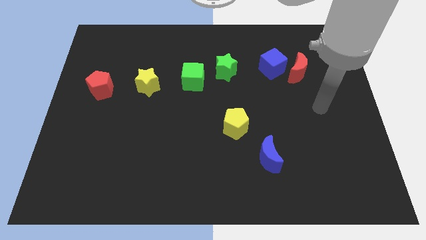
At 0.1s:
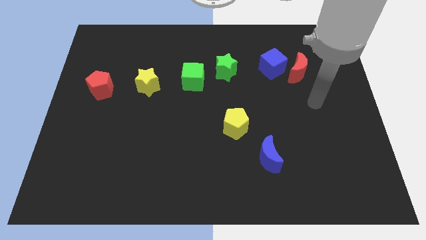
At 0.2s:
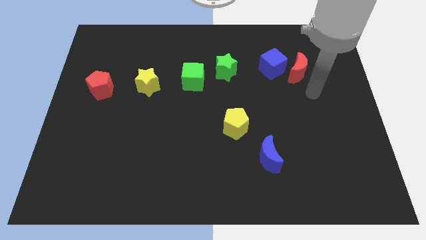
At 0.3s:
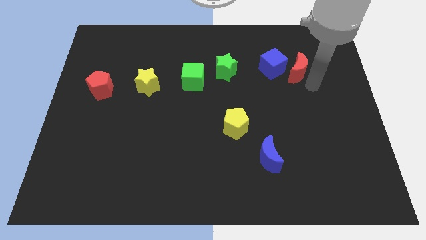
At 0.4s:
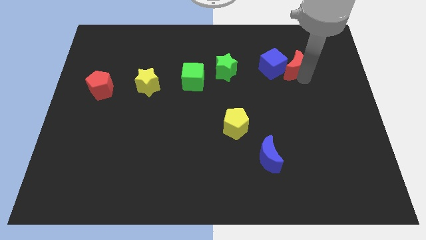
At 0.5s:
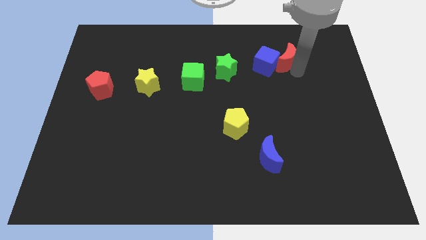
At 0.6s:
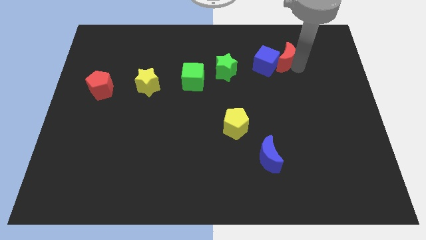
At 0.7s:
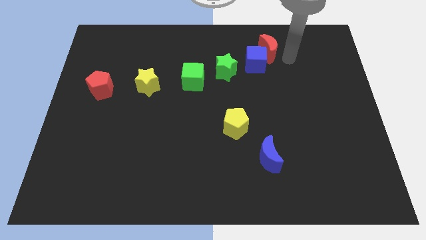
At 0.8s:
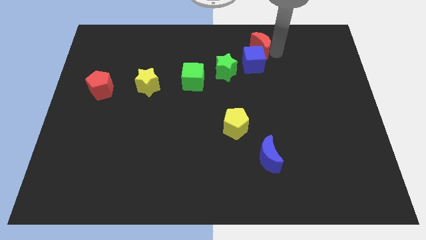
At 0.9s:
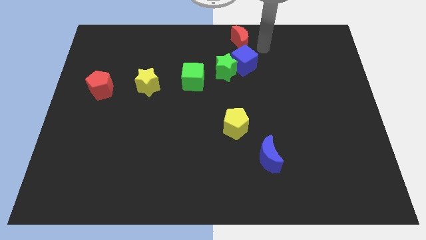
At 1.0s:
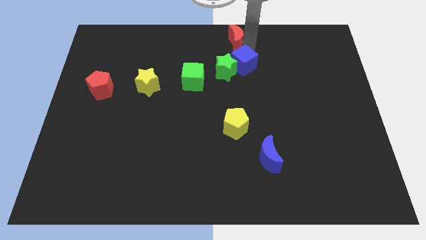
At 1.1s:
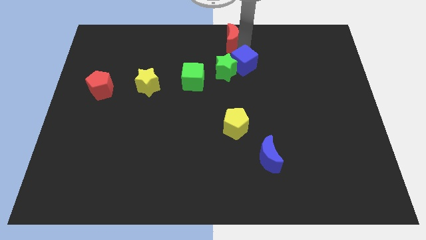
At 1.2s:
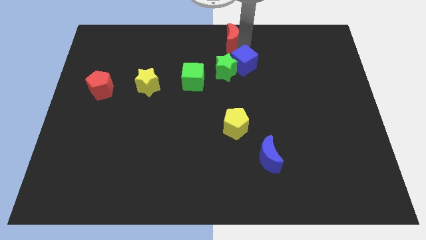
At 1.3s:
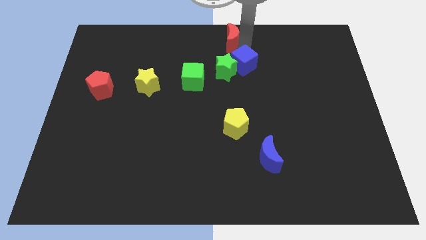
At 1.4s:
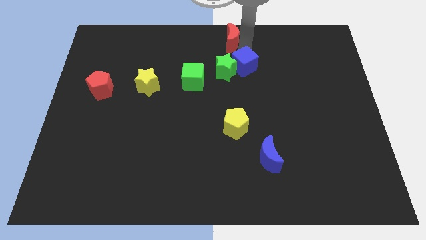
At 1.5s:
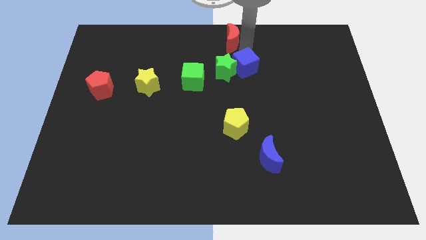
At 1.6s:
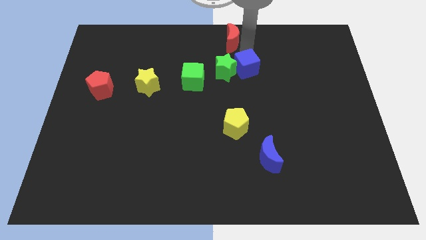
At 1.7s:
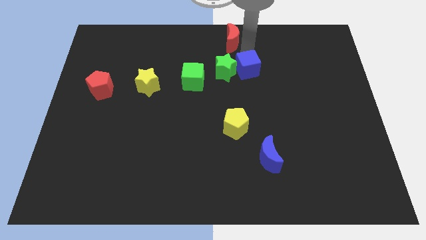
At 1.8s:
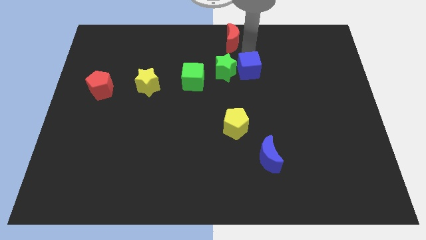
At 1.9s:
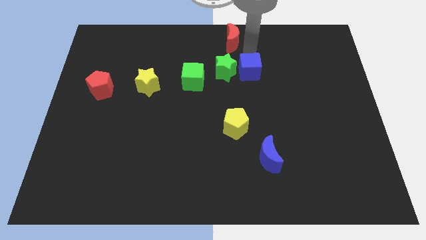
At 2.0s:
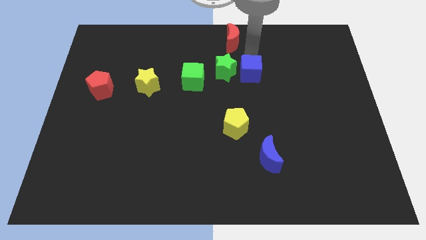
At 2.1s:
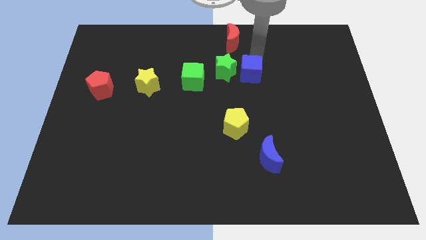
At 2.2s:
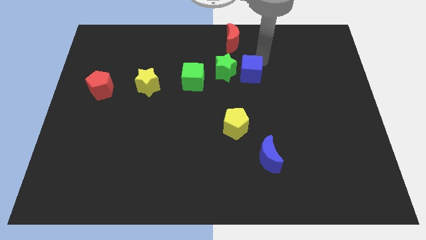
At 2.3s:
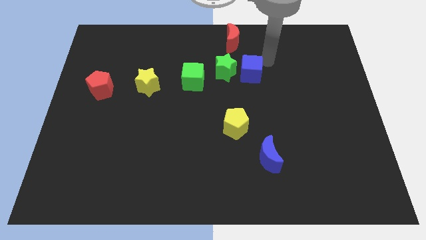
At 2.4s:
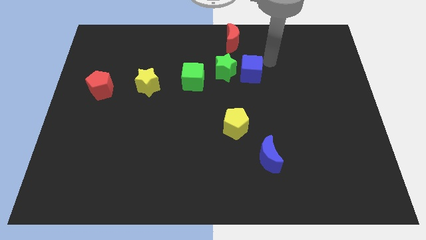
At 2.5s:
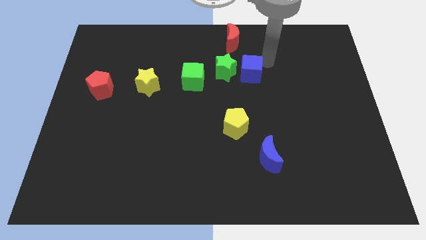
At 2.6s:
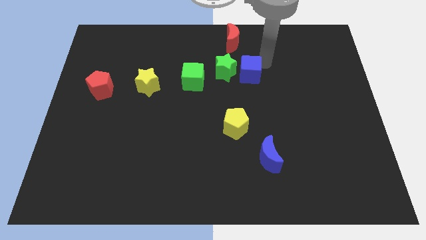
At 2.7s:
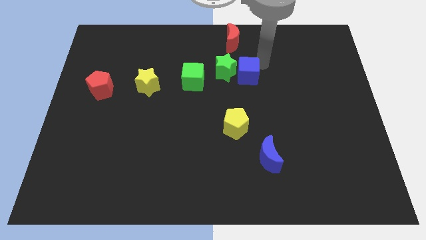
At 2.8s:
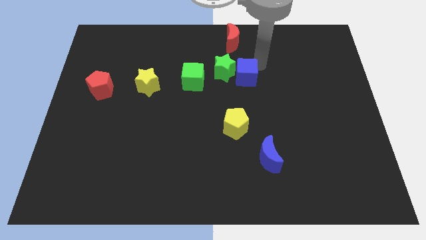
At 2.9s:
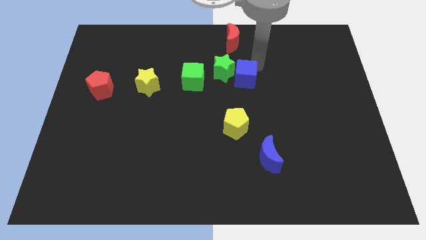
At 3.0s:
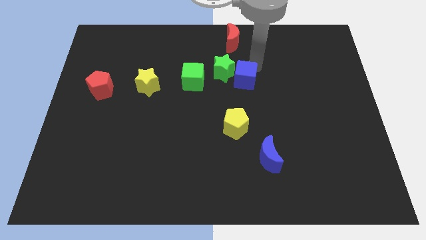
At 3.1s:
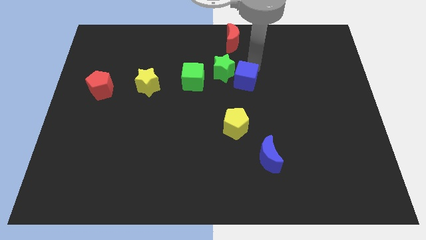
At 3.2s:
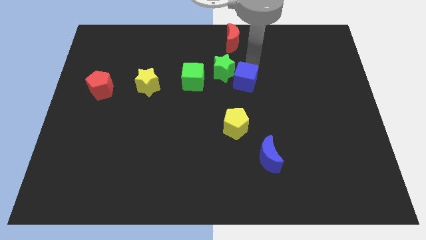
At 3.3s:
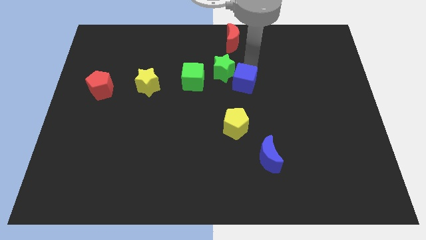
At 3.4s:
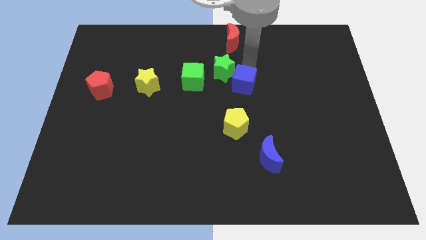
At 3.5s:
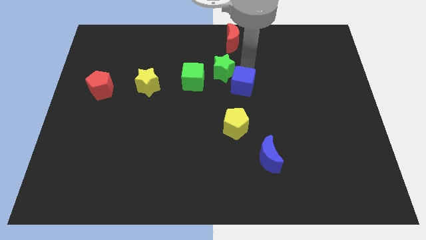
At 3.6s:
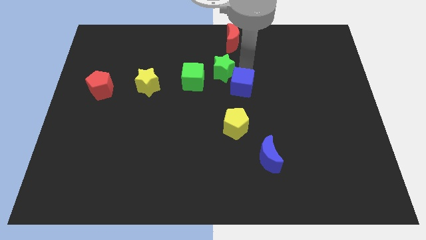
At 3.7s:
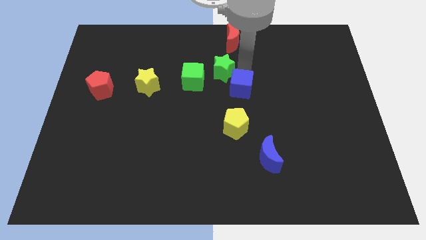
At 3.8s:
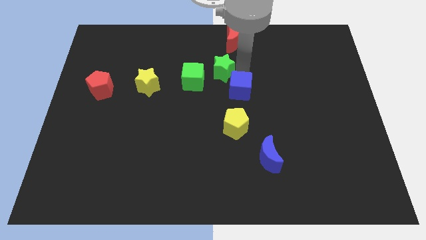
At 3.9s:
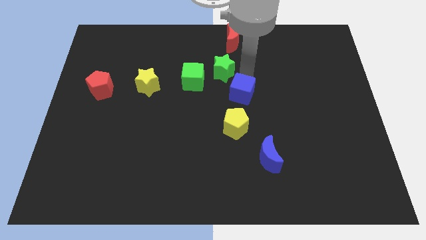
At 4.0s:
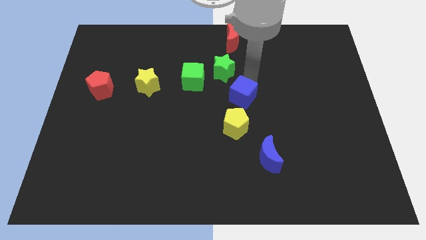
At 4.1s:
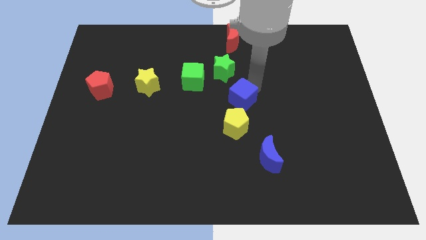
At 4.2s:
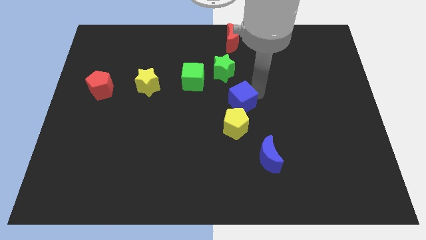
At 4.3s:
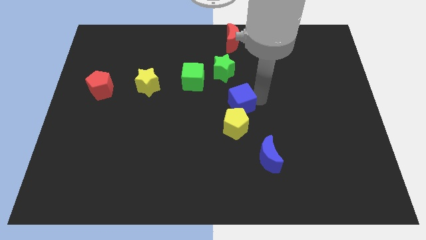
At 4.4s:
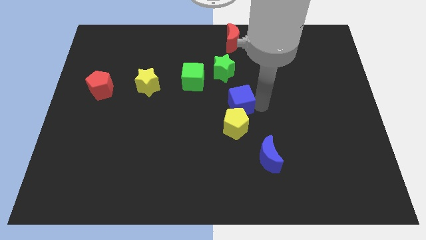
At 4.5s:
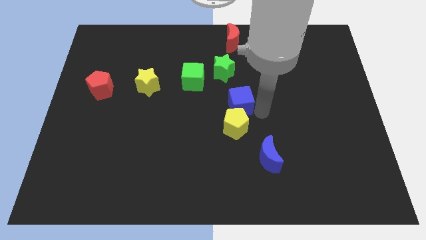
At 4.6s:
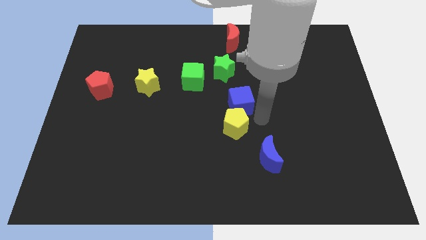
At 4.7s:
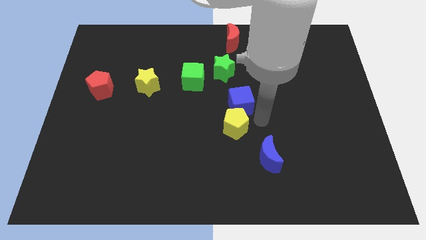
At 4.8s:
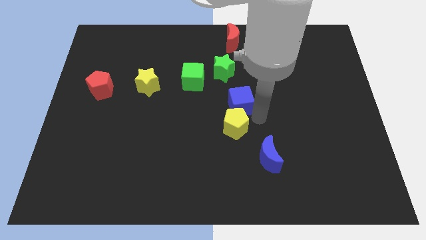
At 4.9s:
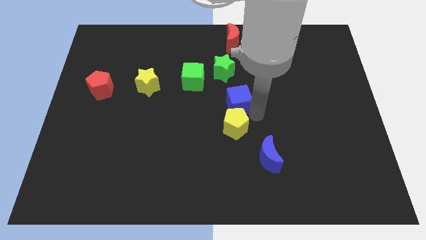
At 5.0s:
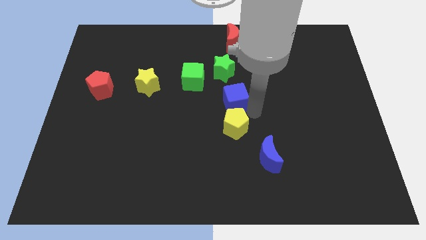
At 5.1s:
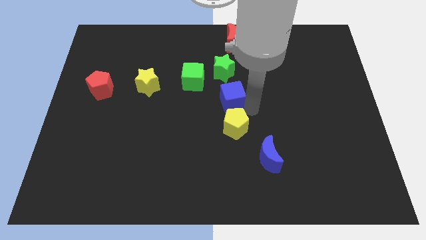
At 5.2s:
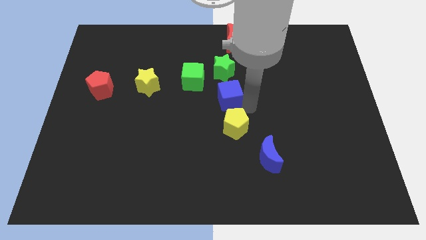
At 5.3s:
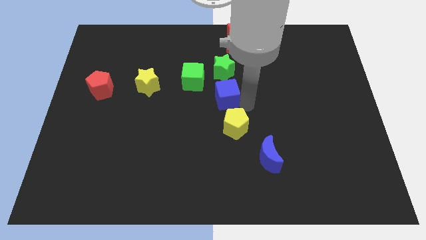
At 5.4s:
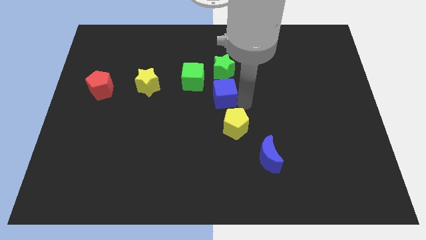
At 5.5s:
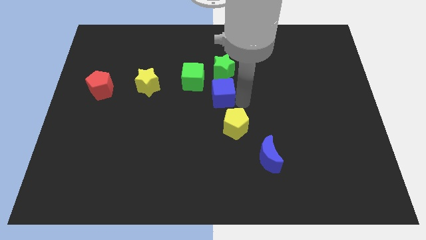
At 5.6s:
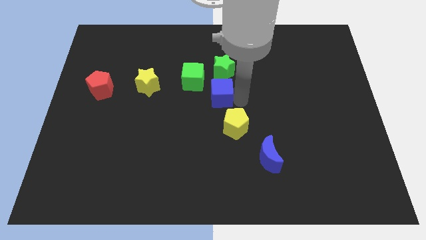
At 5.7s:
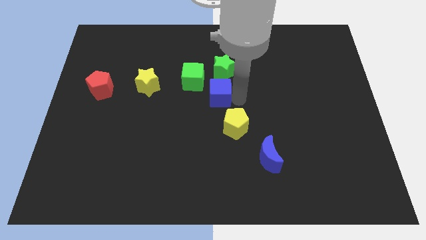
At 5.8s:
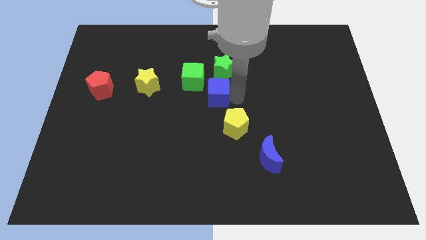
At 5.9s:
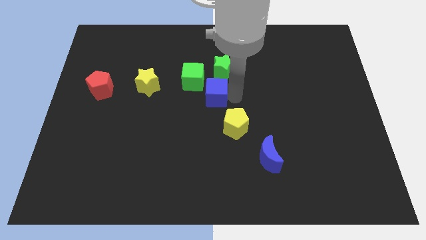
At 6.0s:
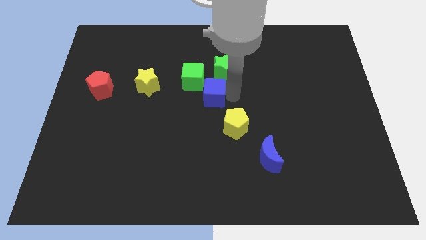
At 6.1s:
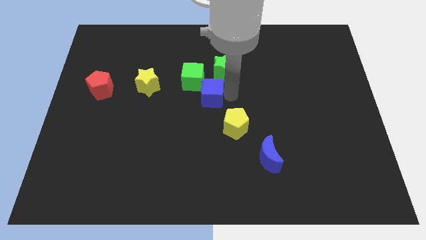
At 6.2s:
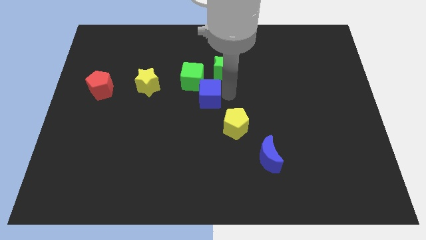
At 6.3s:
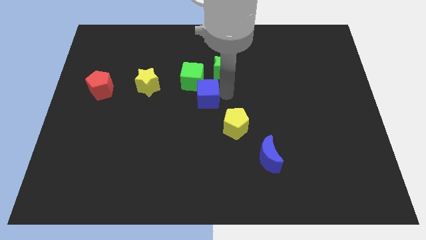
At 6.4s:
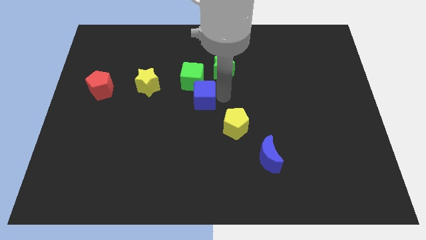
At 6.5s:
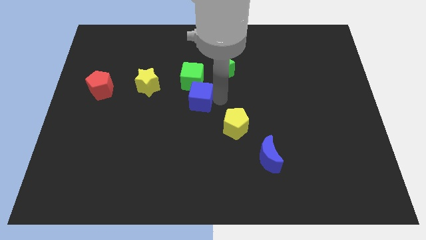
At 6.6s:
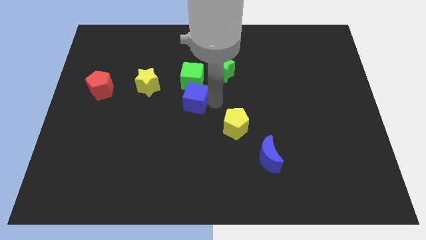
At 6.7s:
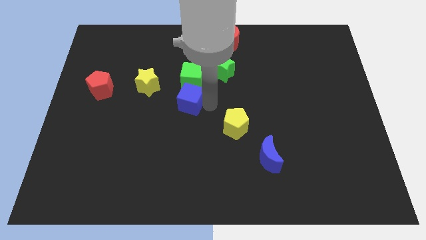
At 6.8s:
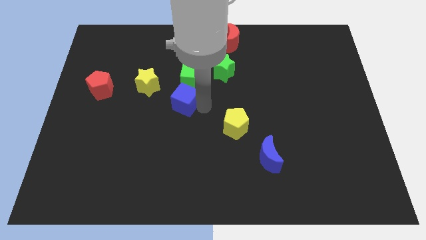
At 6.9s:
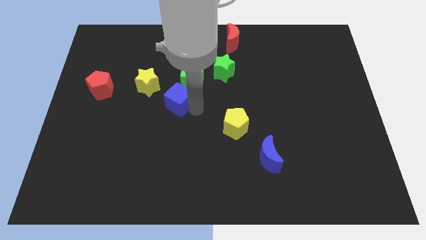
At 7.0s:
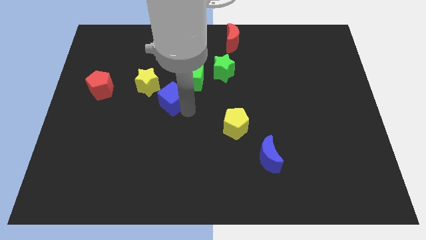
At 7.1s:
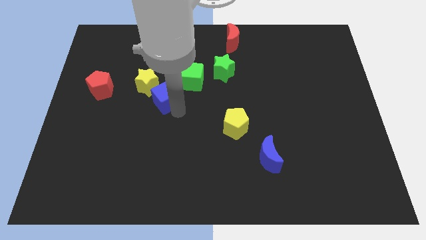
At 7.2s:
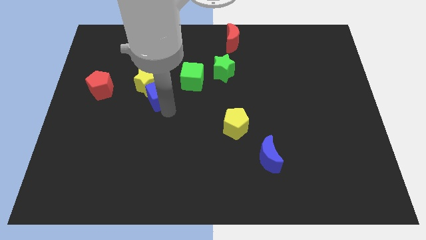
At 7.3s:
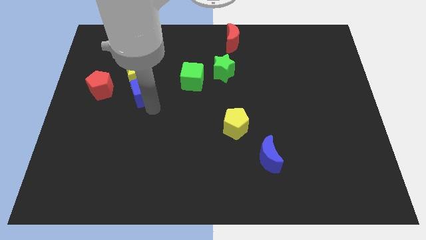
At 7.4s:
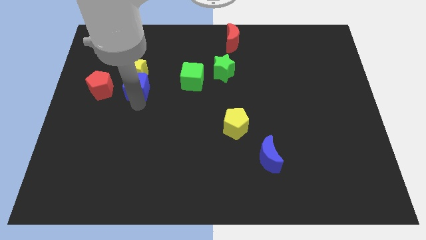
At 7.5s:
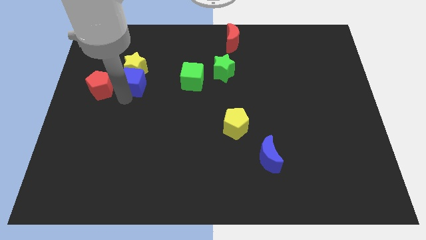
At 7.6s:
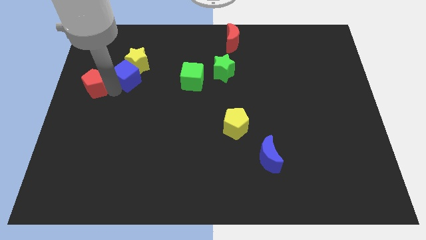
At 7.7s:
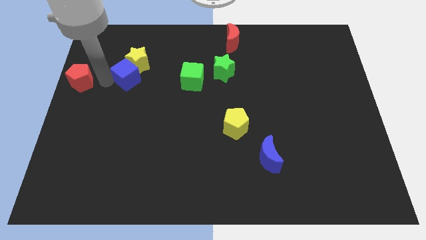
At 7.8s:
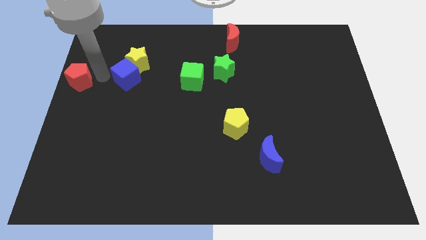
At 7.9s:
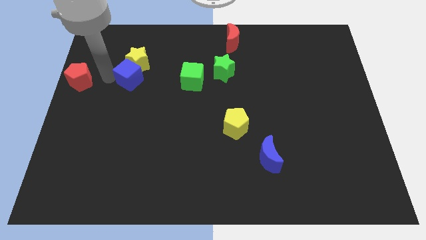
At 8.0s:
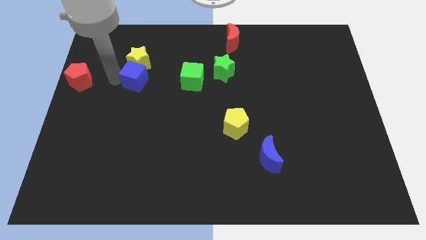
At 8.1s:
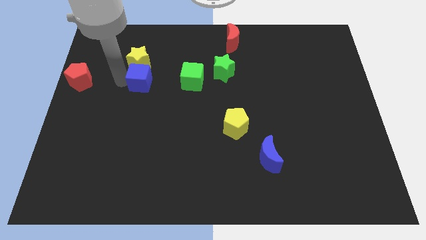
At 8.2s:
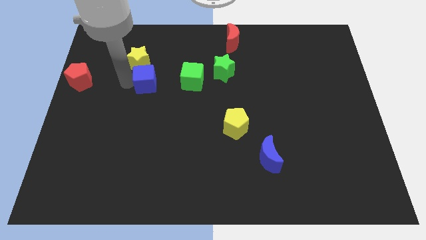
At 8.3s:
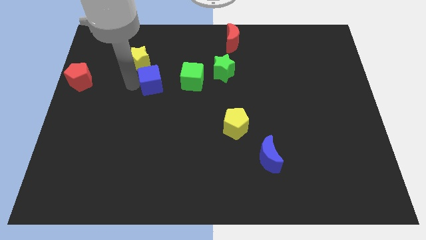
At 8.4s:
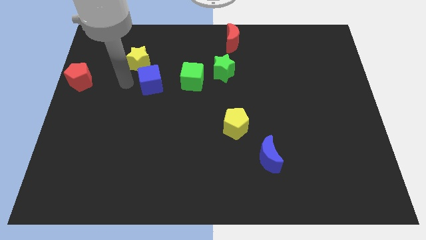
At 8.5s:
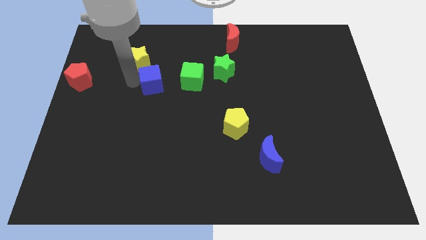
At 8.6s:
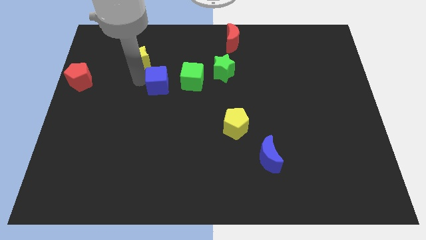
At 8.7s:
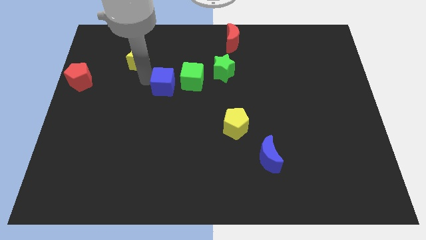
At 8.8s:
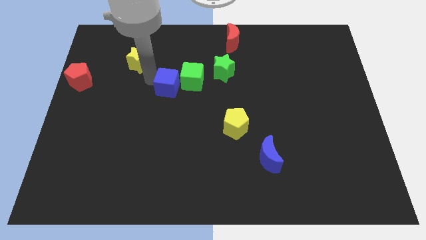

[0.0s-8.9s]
slide the blue cube close to the green cube
